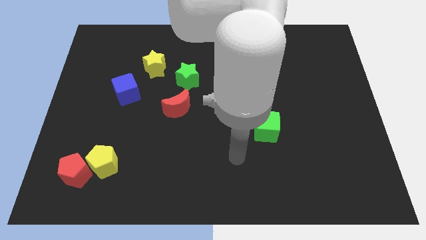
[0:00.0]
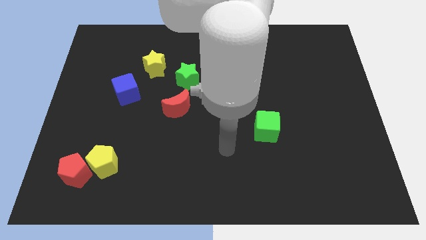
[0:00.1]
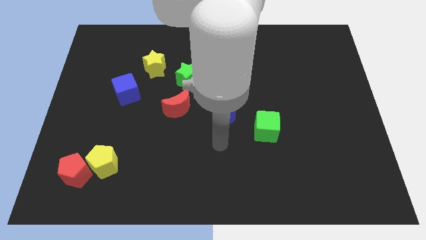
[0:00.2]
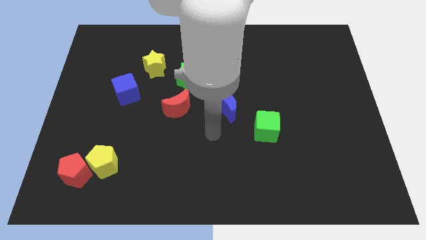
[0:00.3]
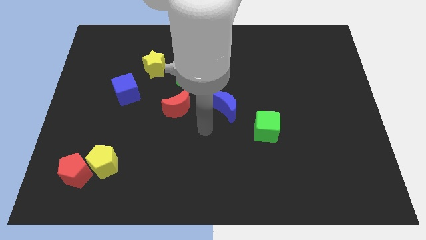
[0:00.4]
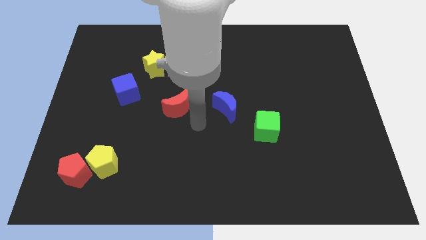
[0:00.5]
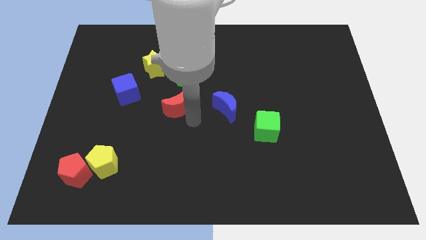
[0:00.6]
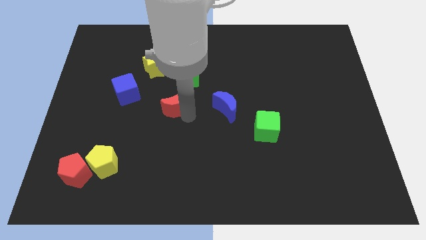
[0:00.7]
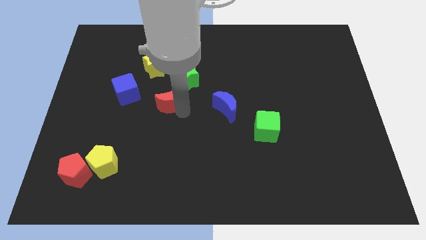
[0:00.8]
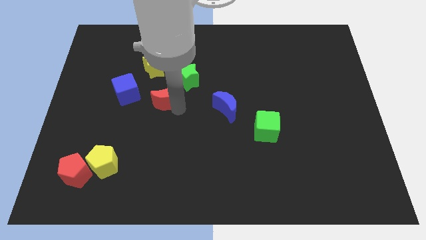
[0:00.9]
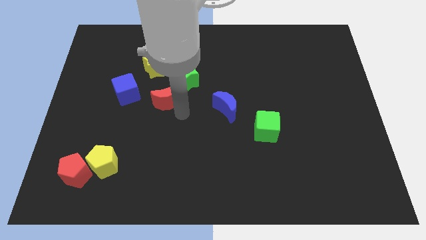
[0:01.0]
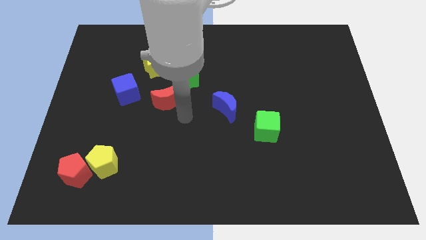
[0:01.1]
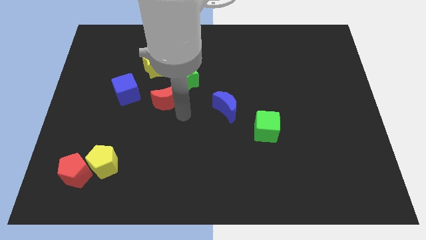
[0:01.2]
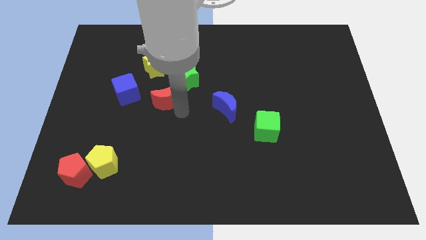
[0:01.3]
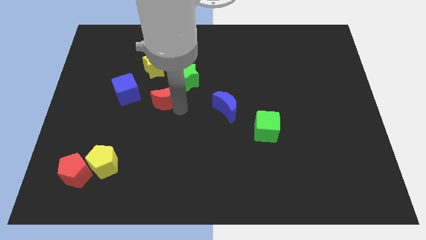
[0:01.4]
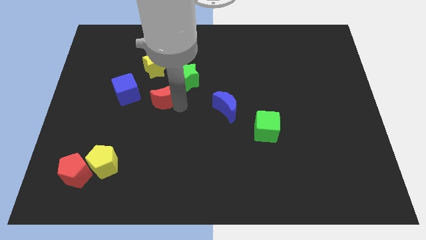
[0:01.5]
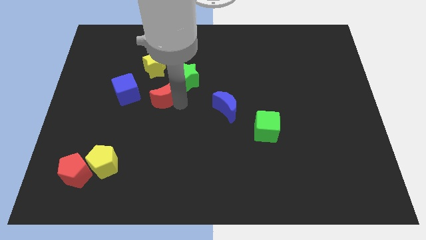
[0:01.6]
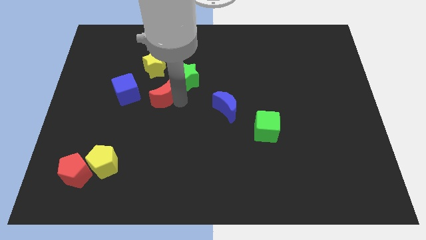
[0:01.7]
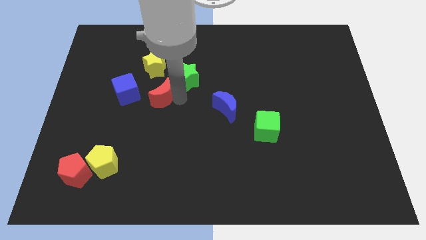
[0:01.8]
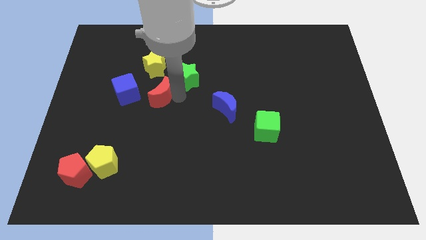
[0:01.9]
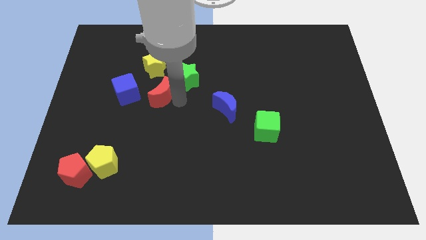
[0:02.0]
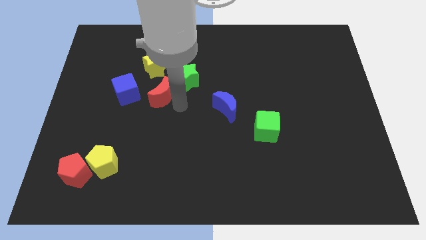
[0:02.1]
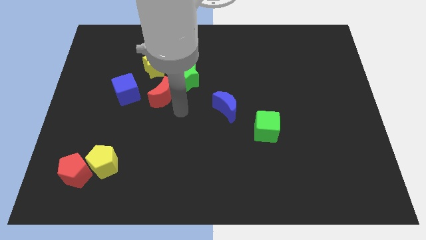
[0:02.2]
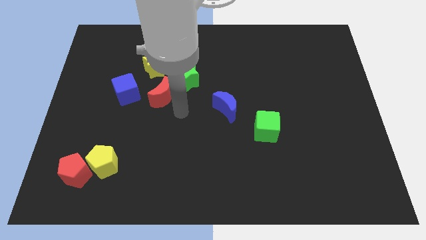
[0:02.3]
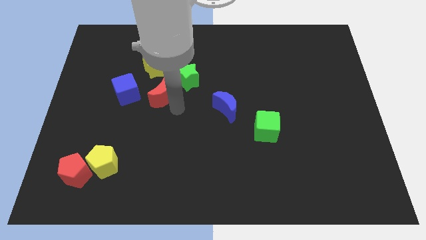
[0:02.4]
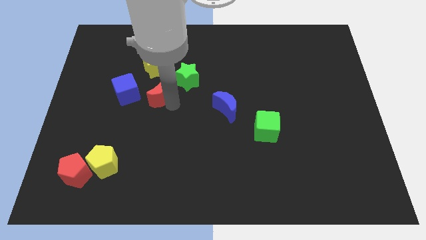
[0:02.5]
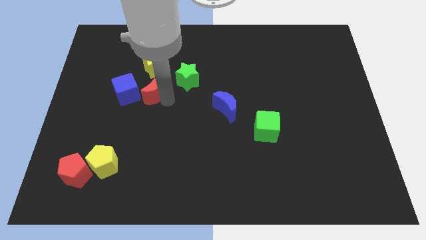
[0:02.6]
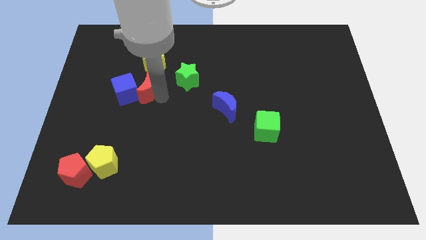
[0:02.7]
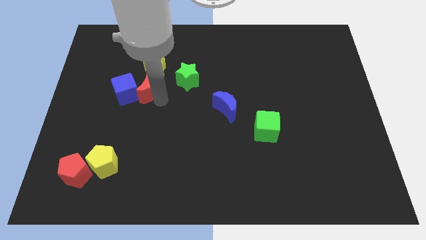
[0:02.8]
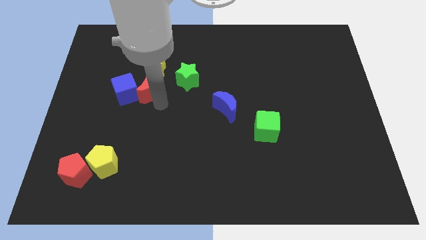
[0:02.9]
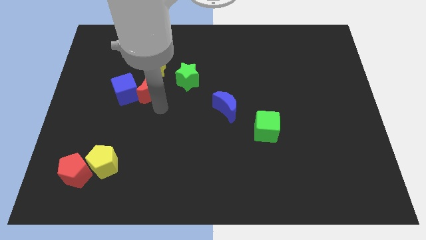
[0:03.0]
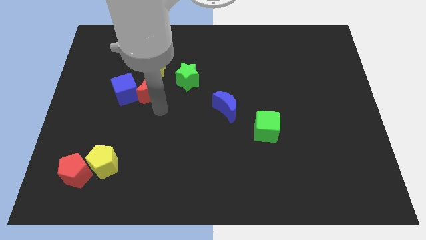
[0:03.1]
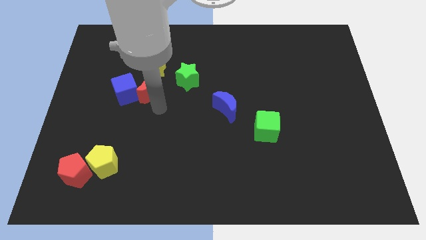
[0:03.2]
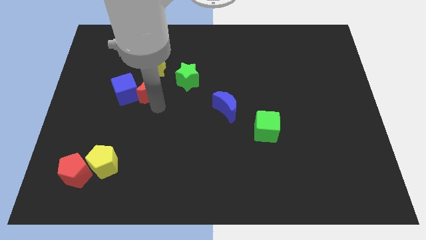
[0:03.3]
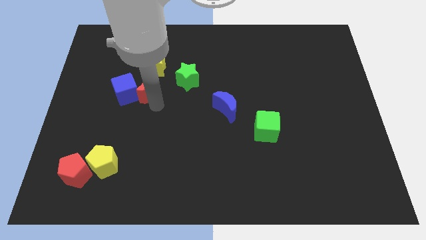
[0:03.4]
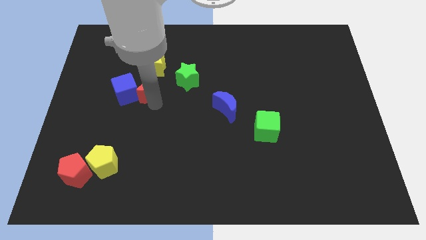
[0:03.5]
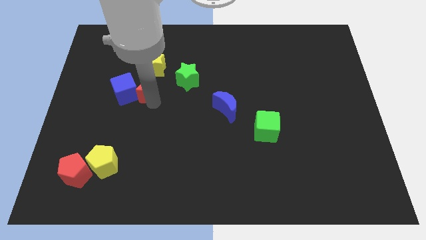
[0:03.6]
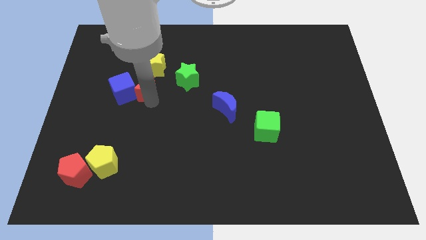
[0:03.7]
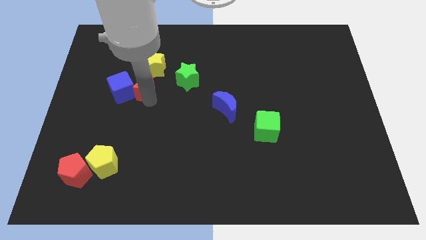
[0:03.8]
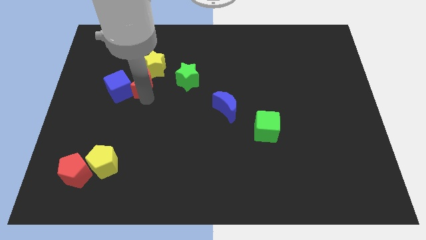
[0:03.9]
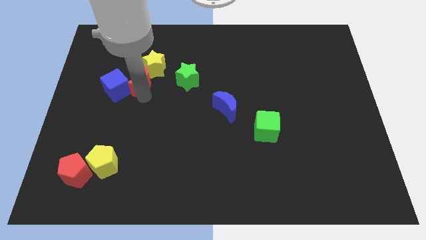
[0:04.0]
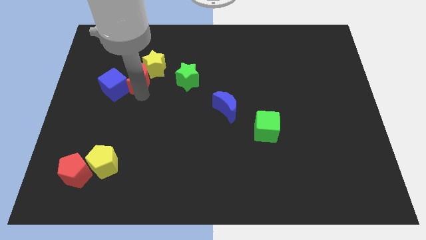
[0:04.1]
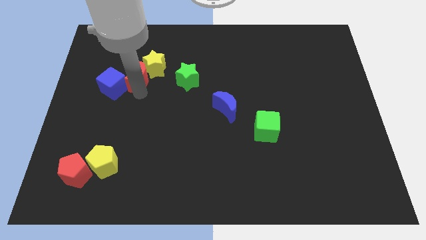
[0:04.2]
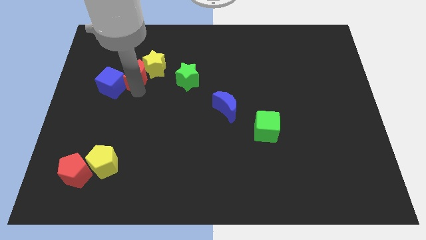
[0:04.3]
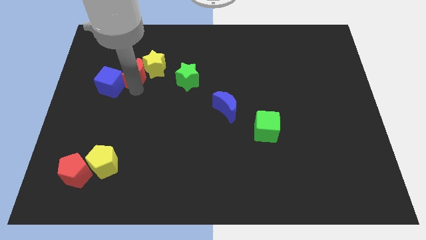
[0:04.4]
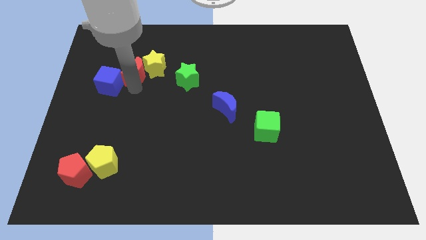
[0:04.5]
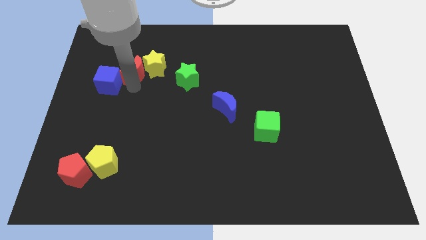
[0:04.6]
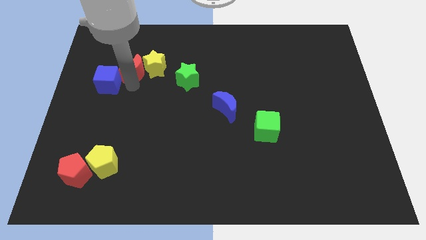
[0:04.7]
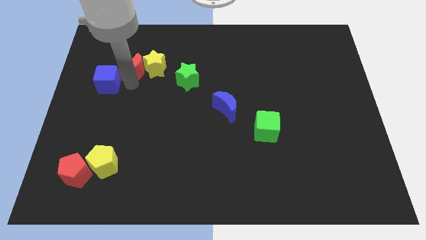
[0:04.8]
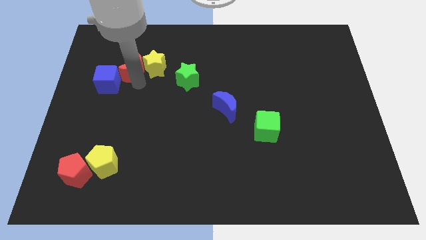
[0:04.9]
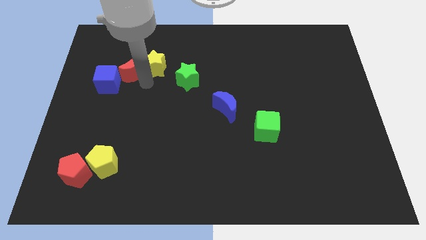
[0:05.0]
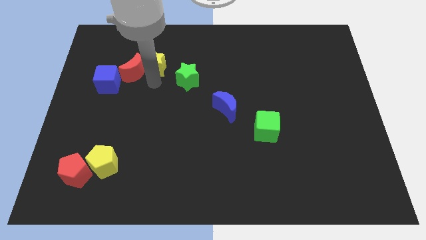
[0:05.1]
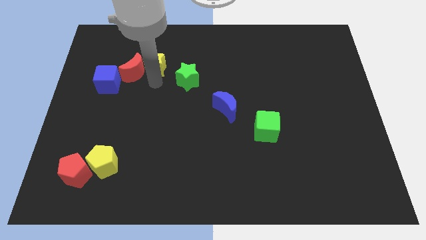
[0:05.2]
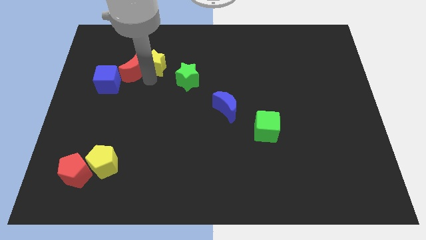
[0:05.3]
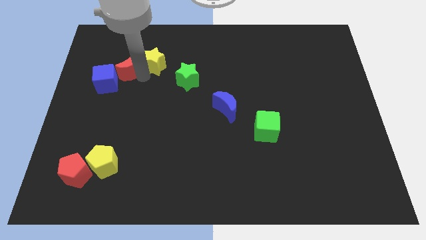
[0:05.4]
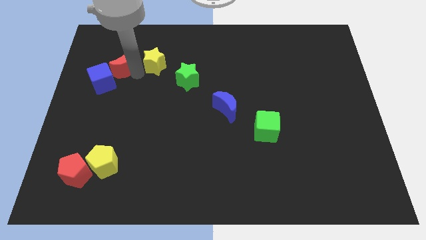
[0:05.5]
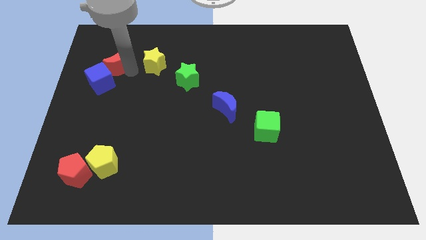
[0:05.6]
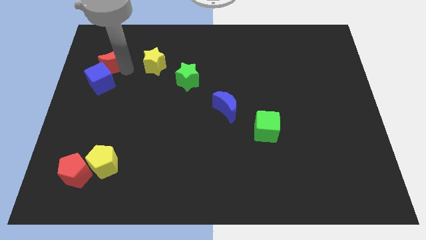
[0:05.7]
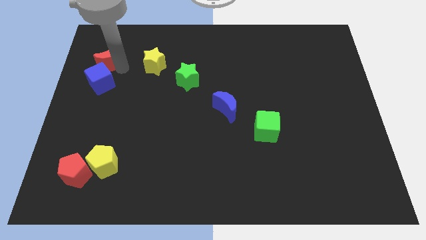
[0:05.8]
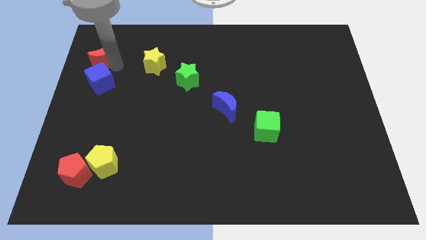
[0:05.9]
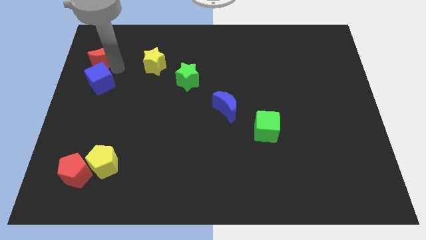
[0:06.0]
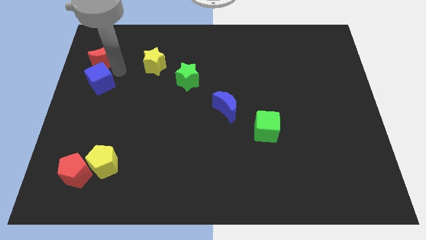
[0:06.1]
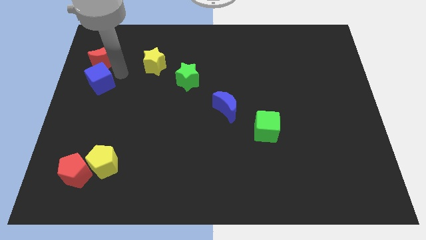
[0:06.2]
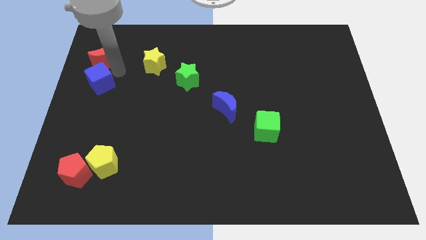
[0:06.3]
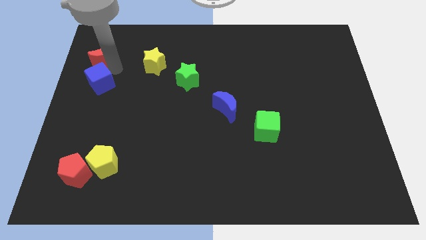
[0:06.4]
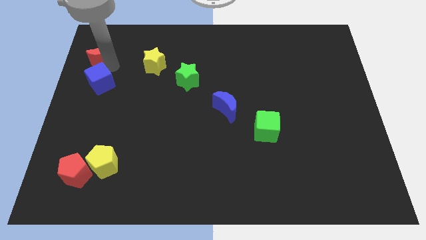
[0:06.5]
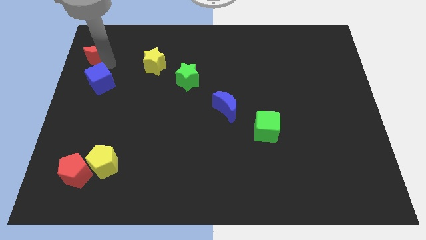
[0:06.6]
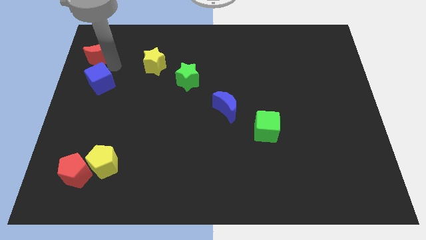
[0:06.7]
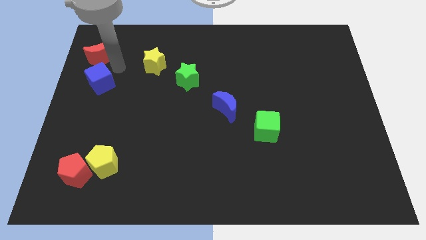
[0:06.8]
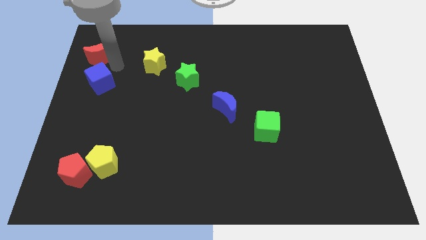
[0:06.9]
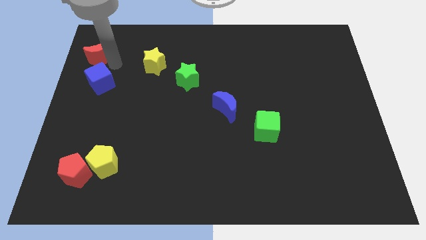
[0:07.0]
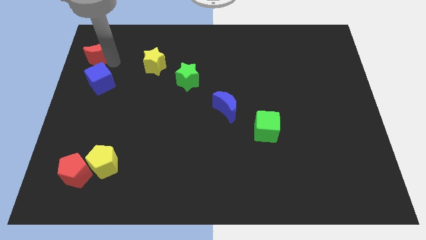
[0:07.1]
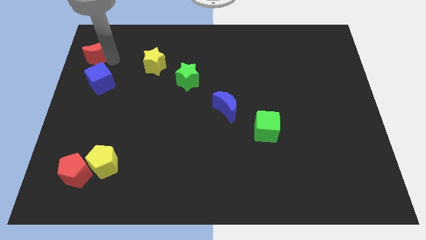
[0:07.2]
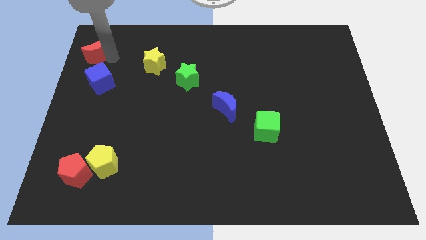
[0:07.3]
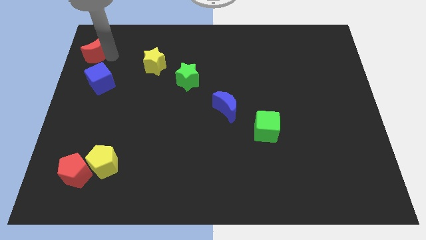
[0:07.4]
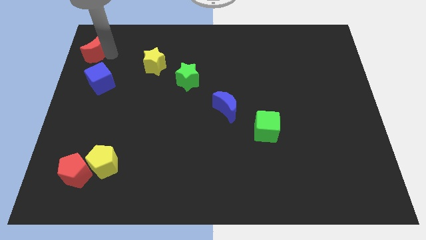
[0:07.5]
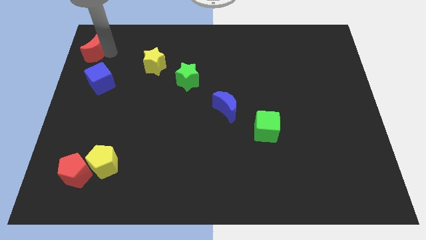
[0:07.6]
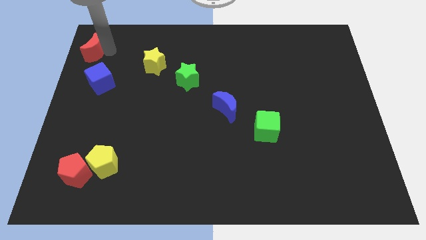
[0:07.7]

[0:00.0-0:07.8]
move the red moon to the top left
